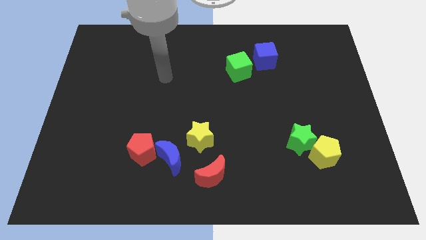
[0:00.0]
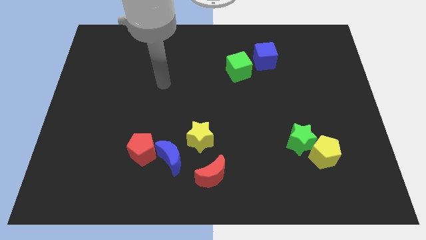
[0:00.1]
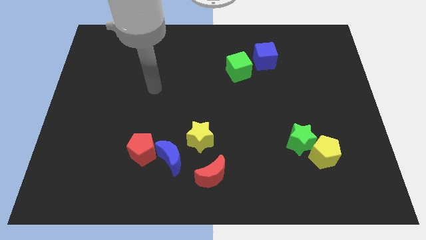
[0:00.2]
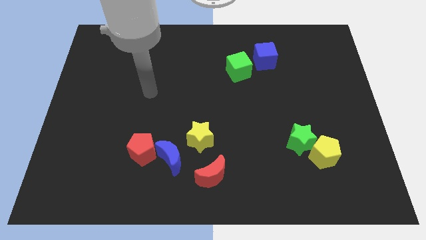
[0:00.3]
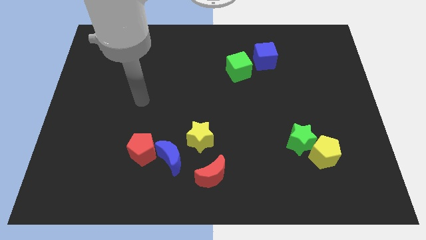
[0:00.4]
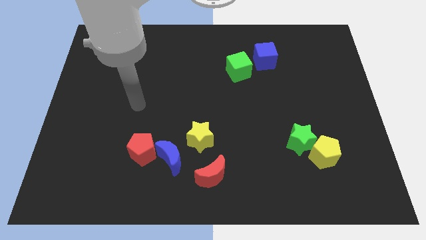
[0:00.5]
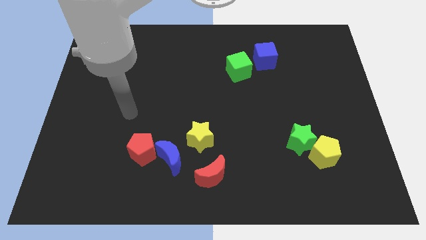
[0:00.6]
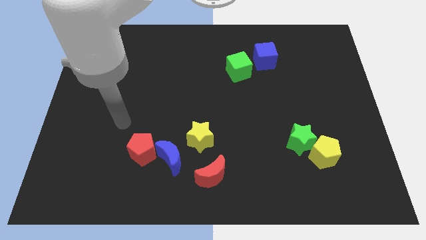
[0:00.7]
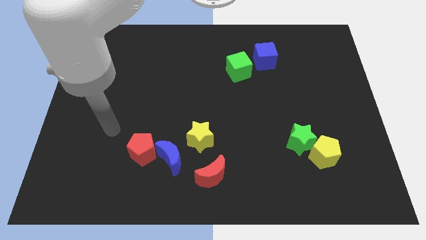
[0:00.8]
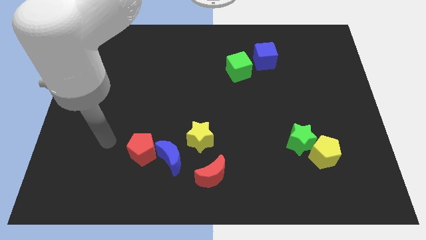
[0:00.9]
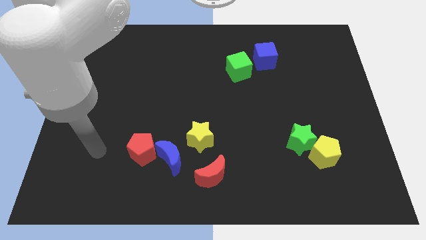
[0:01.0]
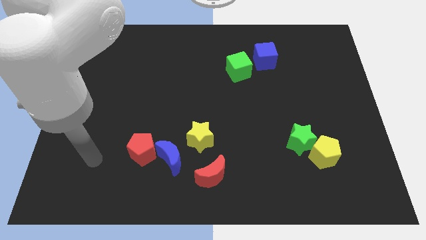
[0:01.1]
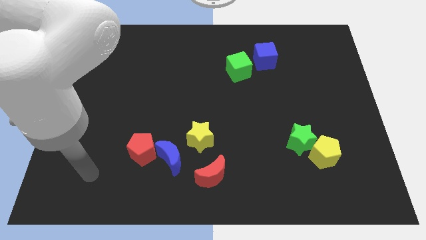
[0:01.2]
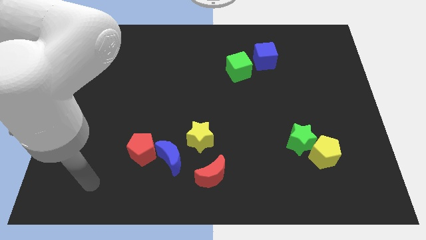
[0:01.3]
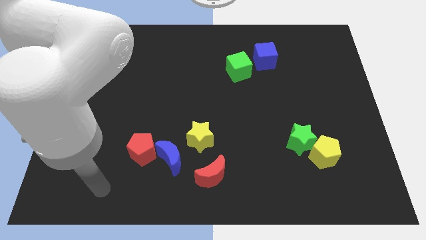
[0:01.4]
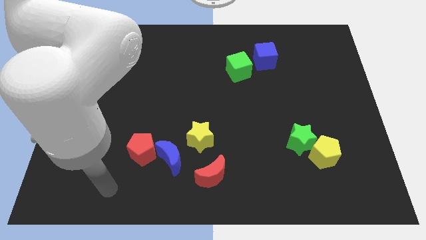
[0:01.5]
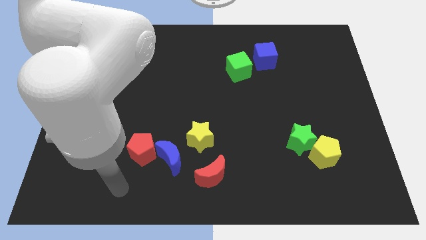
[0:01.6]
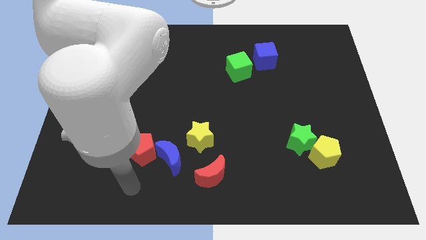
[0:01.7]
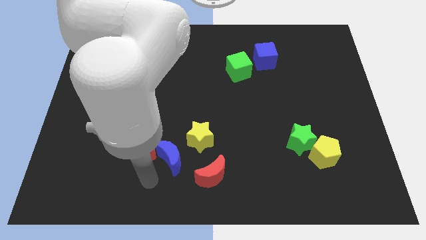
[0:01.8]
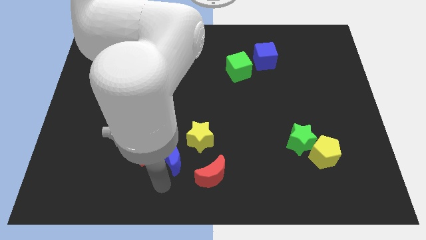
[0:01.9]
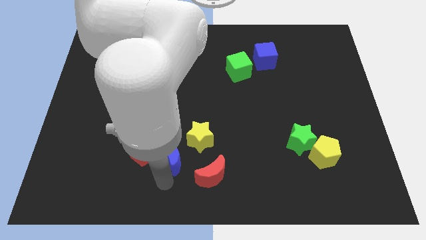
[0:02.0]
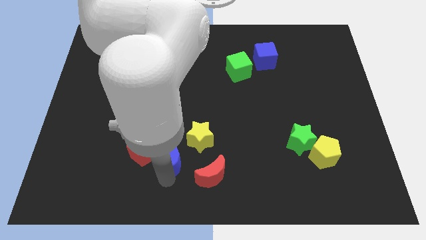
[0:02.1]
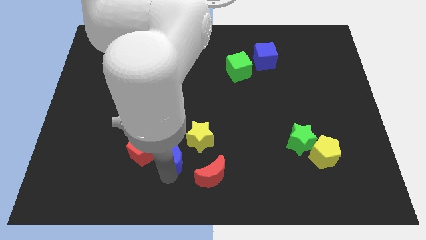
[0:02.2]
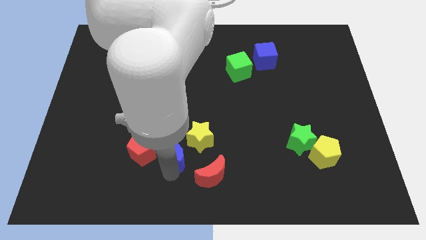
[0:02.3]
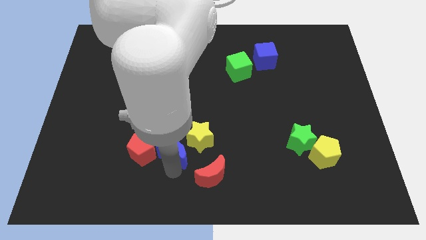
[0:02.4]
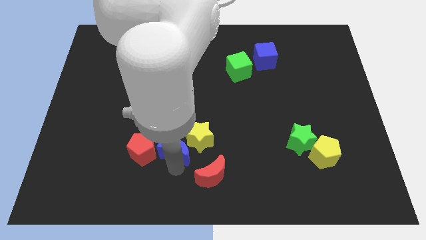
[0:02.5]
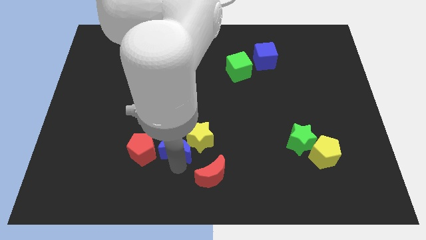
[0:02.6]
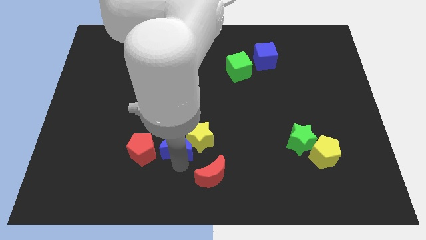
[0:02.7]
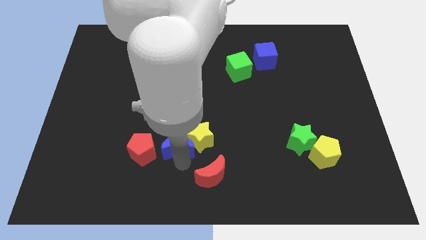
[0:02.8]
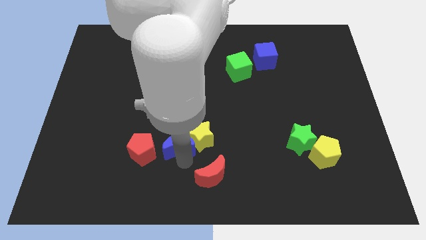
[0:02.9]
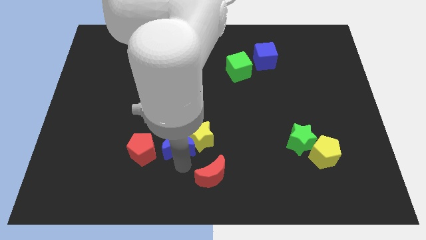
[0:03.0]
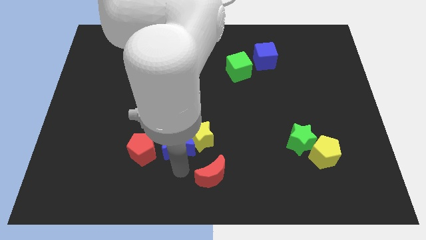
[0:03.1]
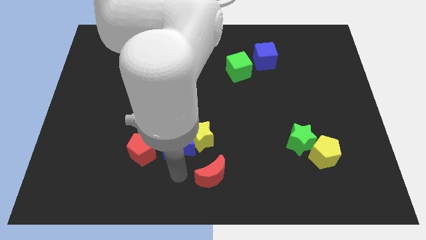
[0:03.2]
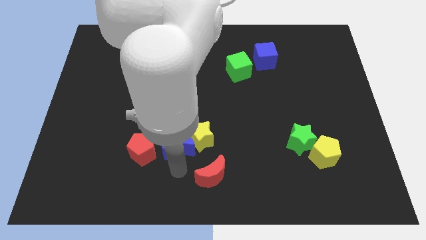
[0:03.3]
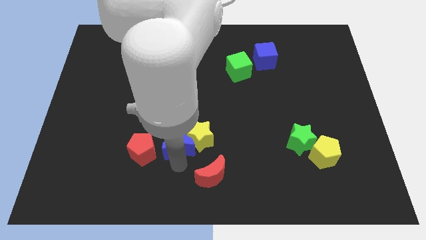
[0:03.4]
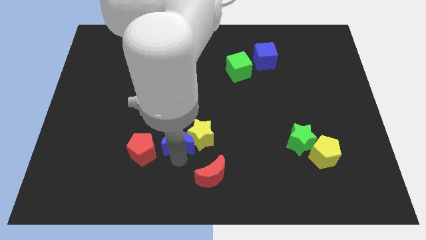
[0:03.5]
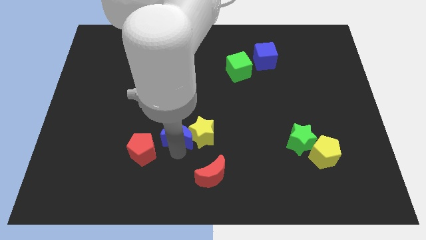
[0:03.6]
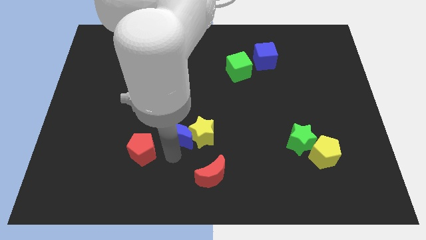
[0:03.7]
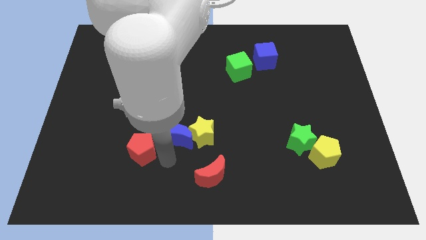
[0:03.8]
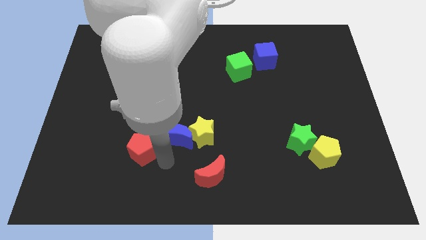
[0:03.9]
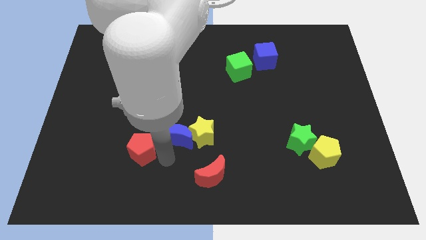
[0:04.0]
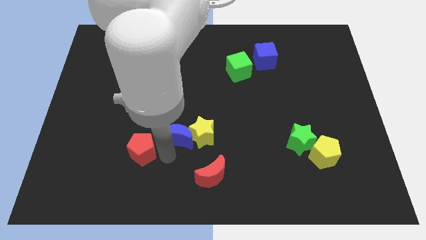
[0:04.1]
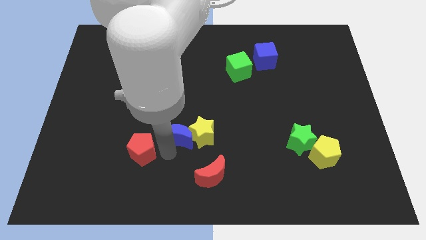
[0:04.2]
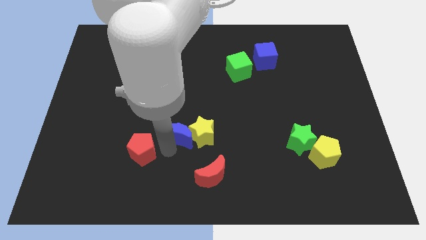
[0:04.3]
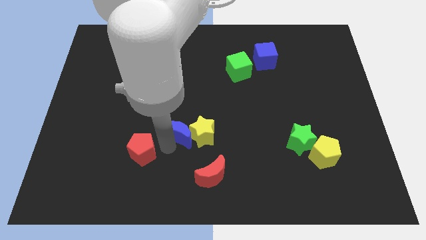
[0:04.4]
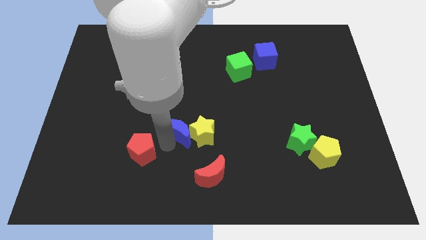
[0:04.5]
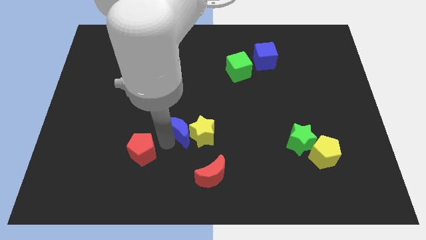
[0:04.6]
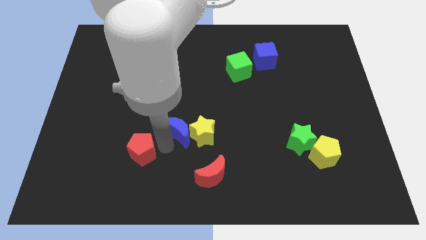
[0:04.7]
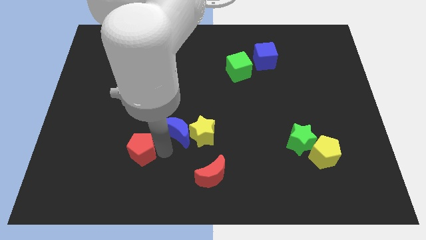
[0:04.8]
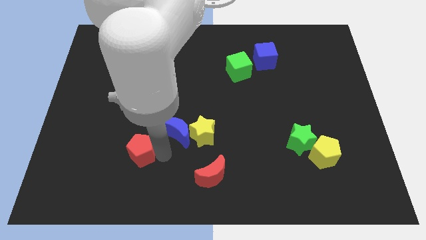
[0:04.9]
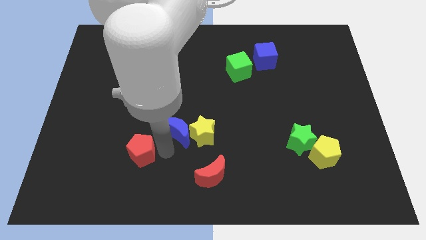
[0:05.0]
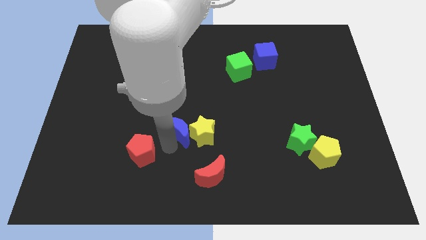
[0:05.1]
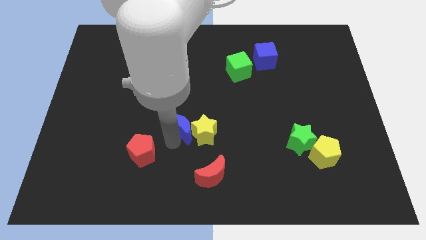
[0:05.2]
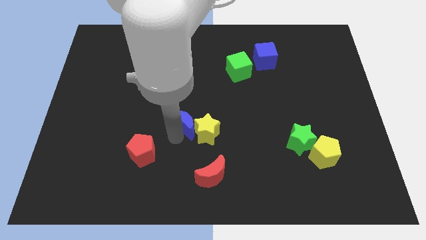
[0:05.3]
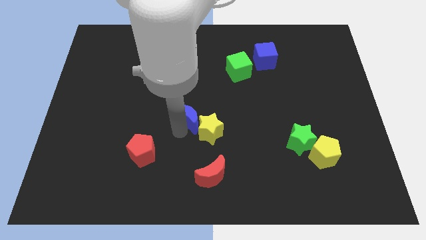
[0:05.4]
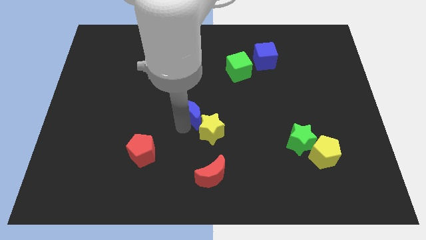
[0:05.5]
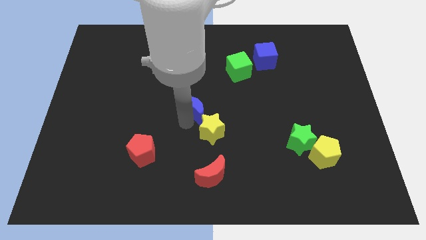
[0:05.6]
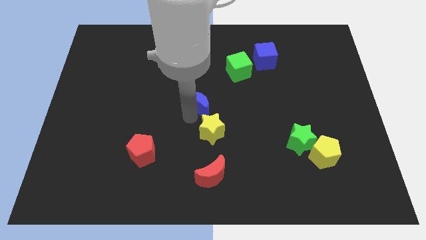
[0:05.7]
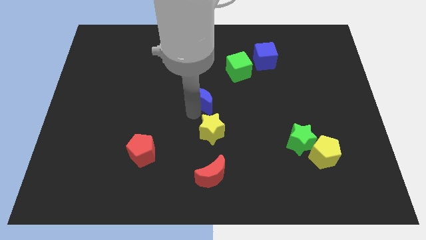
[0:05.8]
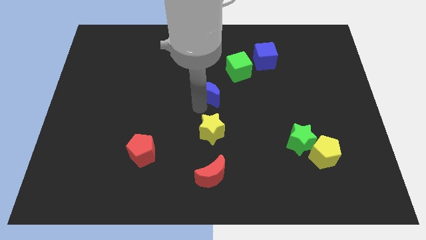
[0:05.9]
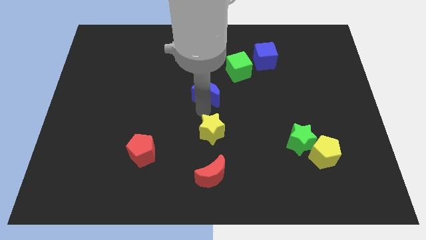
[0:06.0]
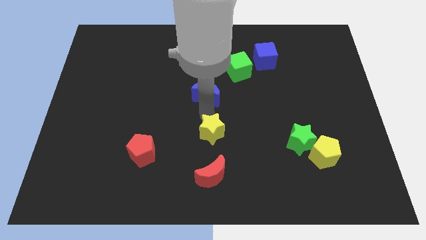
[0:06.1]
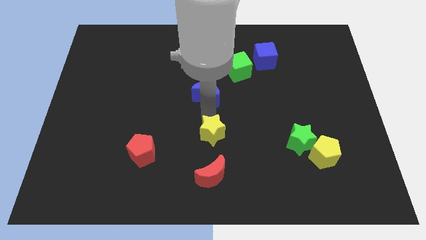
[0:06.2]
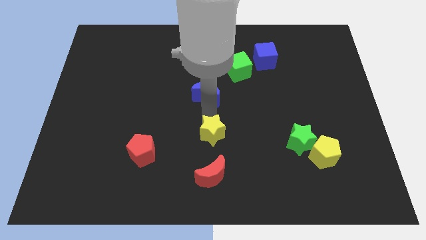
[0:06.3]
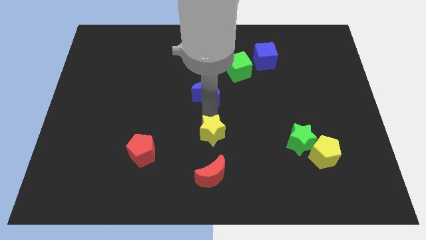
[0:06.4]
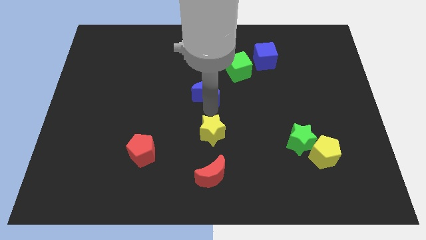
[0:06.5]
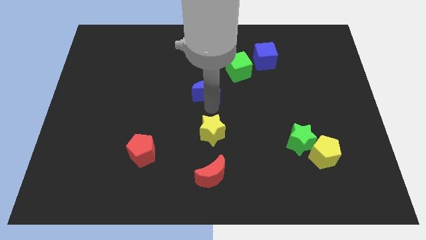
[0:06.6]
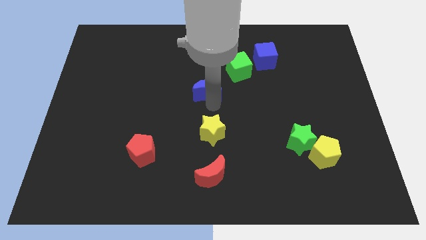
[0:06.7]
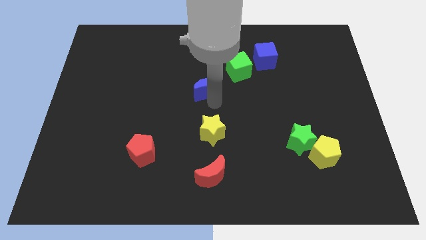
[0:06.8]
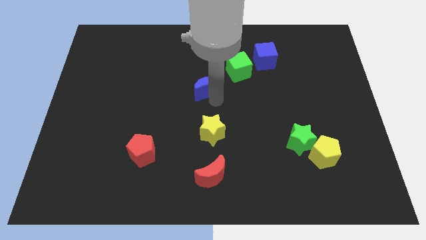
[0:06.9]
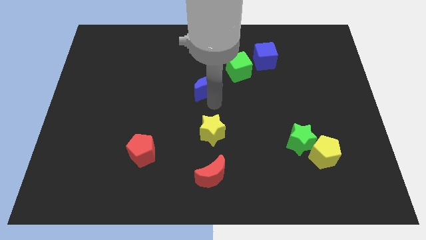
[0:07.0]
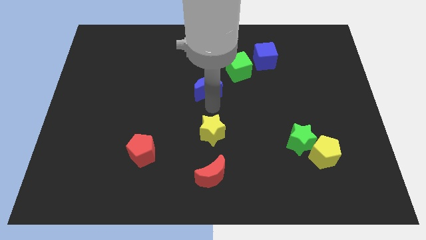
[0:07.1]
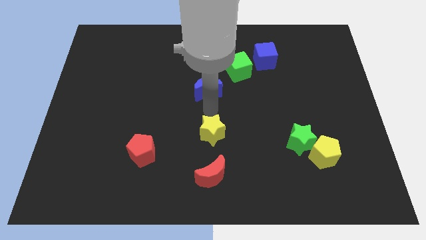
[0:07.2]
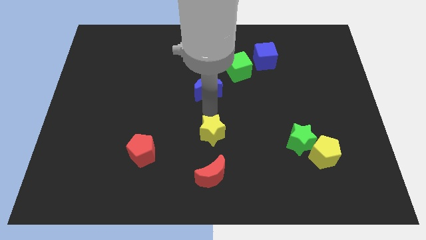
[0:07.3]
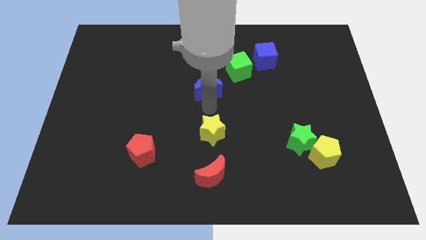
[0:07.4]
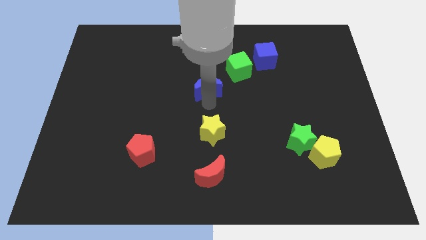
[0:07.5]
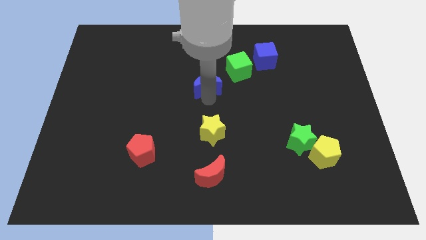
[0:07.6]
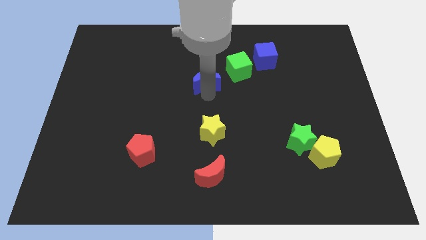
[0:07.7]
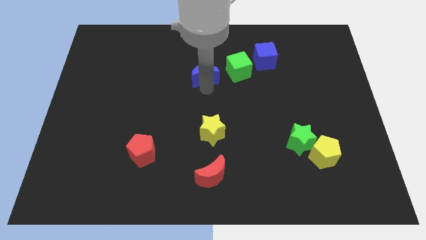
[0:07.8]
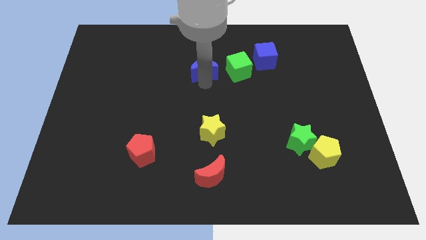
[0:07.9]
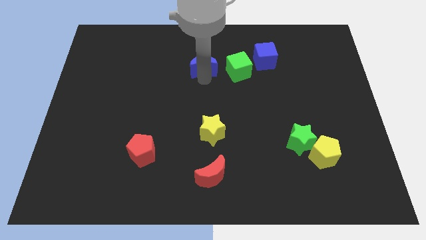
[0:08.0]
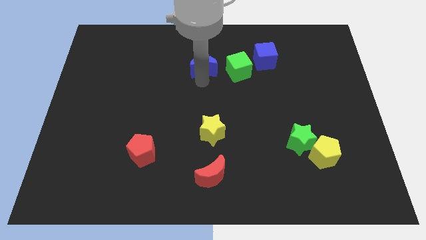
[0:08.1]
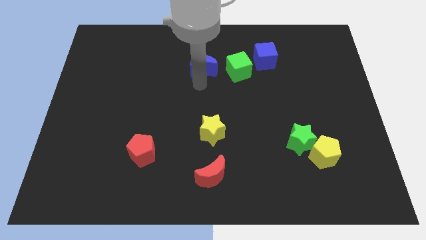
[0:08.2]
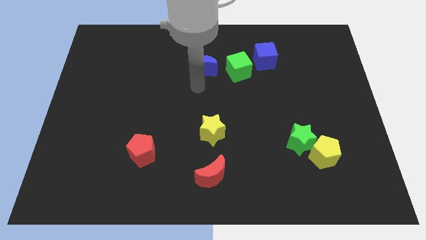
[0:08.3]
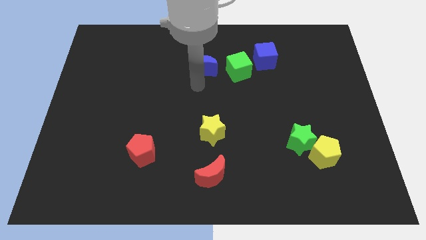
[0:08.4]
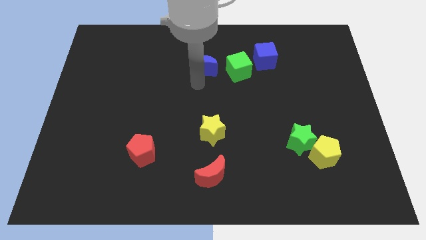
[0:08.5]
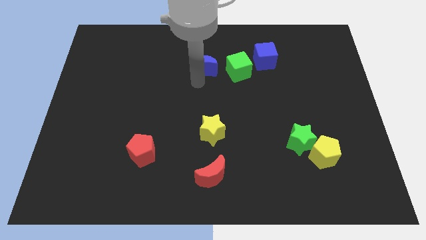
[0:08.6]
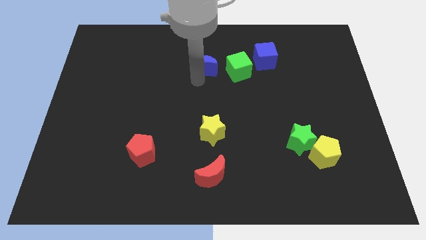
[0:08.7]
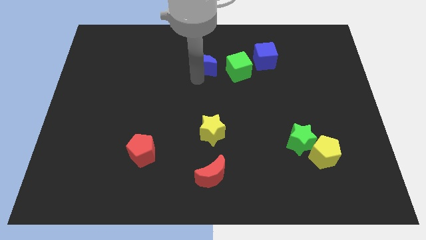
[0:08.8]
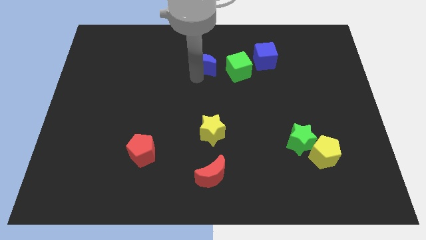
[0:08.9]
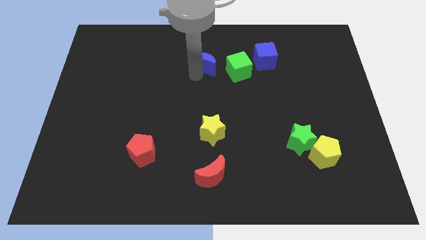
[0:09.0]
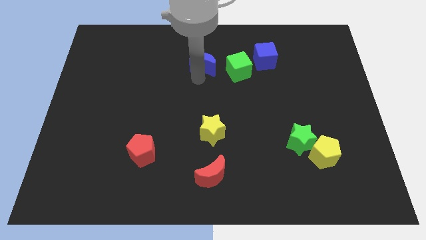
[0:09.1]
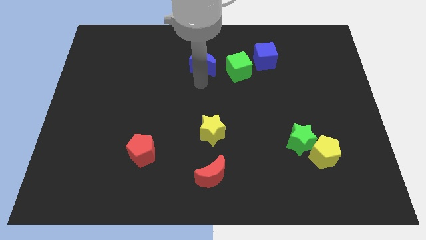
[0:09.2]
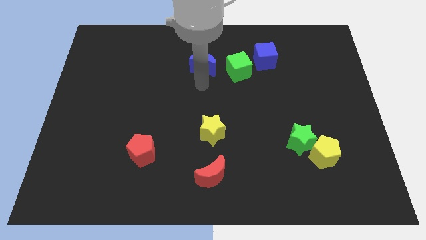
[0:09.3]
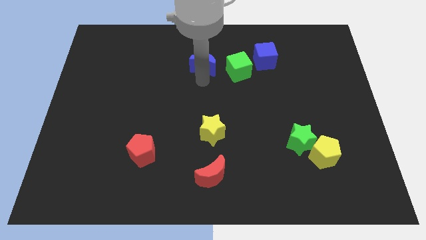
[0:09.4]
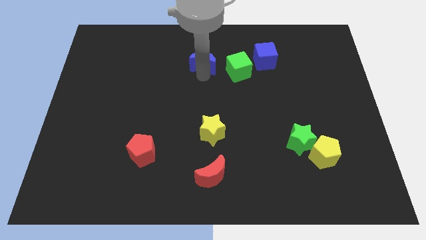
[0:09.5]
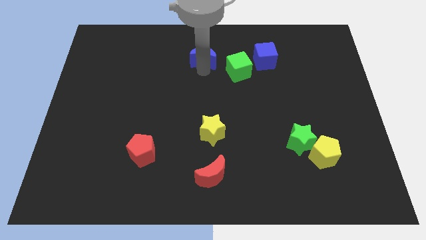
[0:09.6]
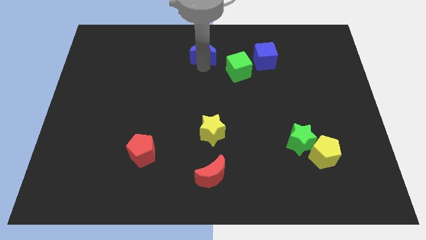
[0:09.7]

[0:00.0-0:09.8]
slide the blue moon to the towards your base
